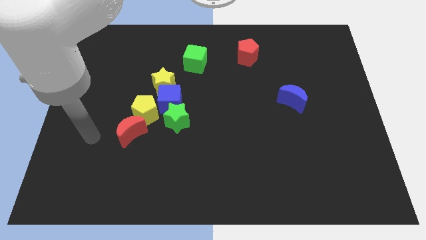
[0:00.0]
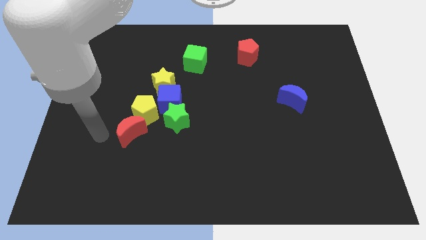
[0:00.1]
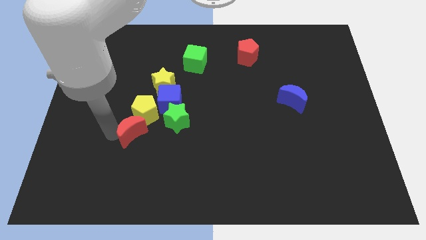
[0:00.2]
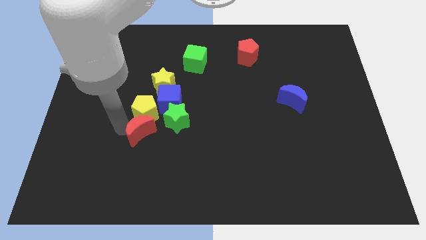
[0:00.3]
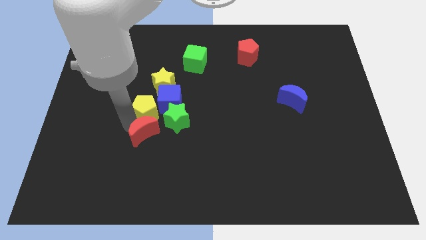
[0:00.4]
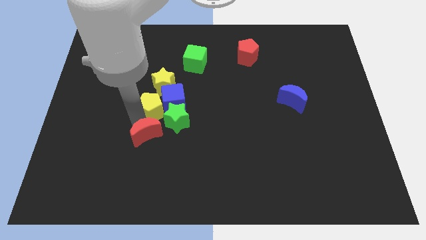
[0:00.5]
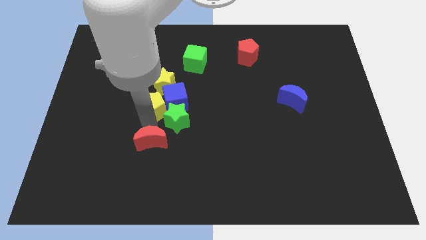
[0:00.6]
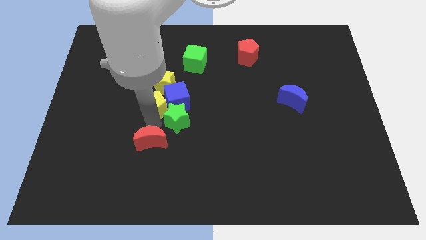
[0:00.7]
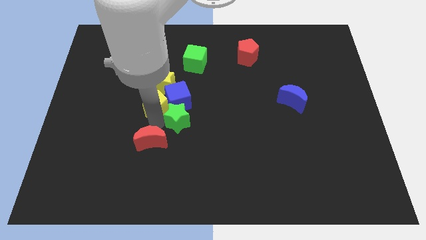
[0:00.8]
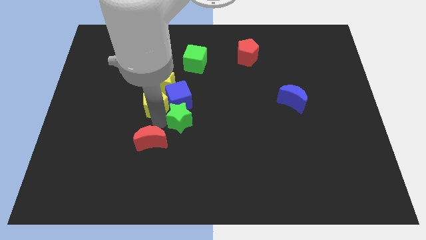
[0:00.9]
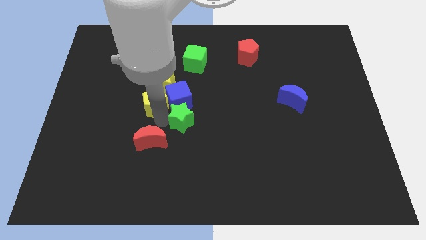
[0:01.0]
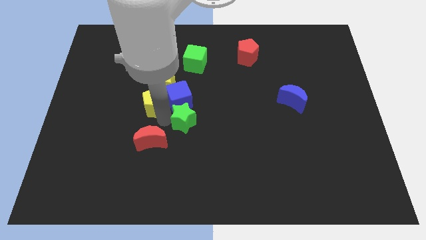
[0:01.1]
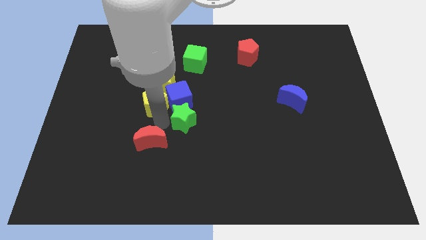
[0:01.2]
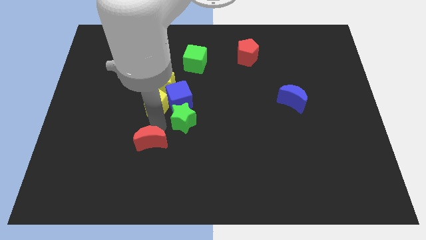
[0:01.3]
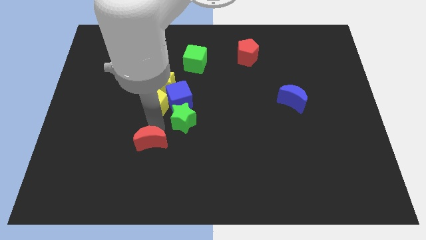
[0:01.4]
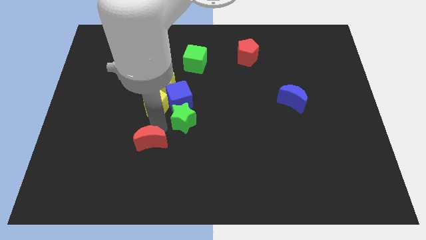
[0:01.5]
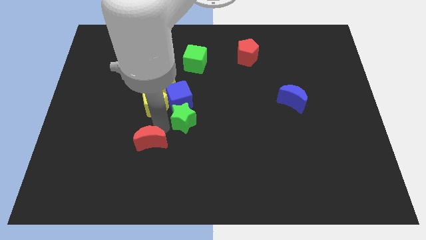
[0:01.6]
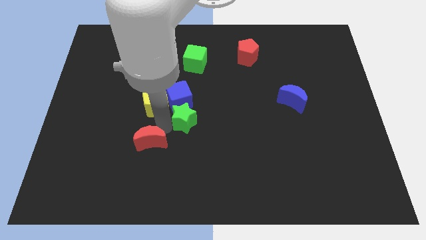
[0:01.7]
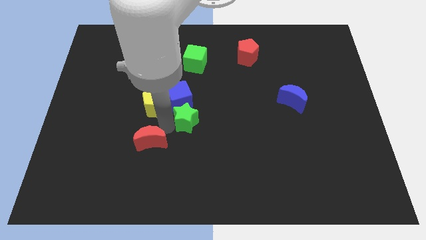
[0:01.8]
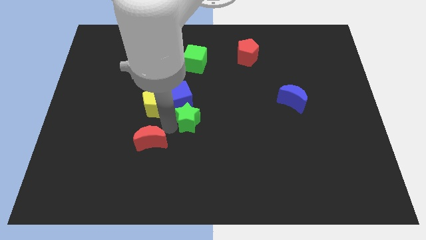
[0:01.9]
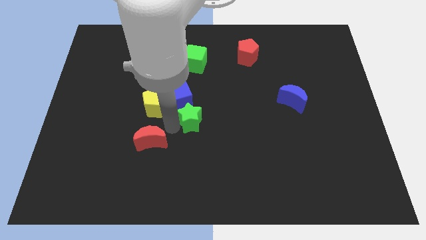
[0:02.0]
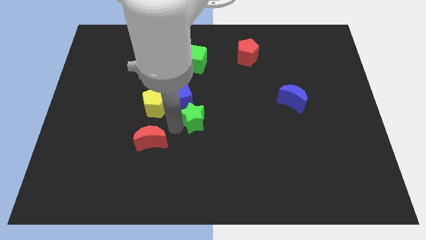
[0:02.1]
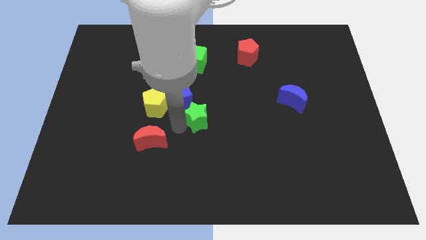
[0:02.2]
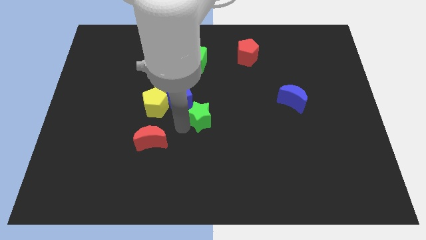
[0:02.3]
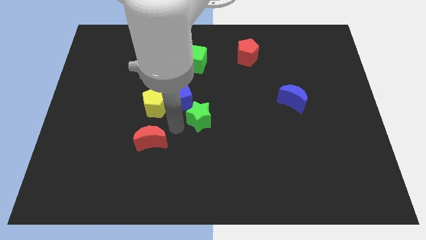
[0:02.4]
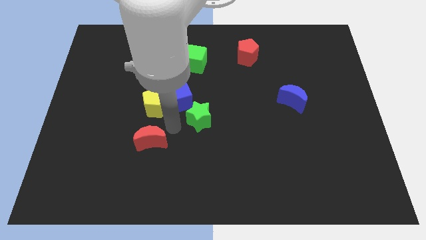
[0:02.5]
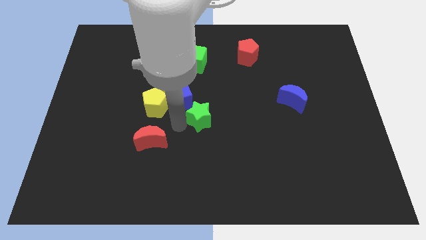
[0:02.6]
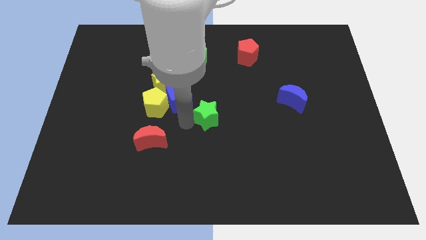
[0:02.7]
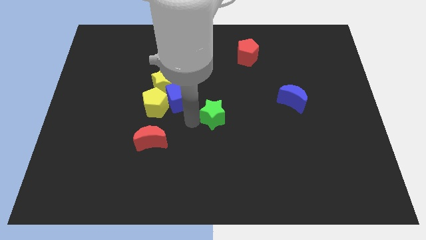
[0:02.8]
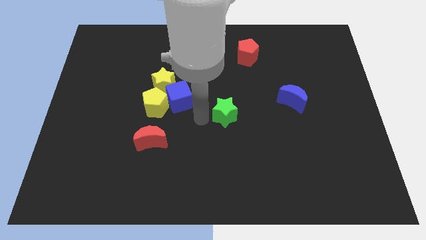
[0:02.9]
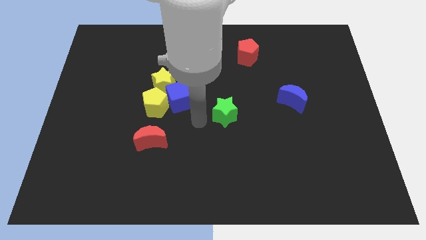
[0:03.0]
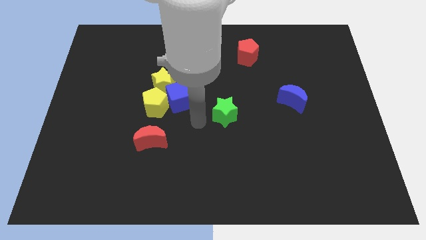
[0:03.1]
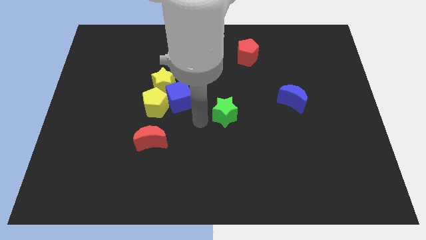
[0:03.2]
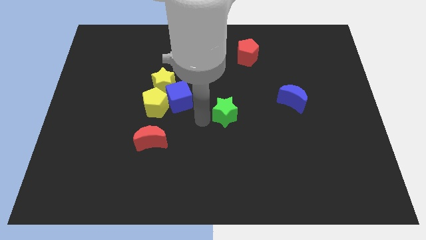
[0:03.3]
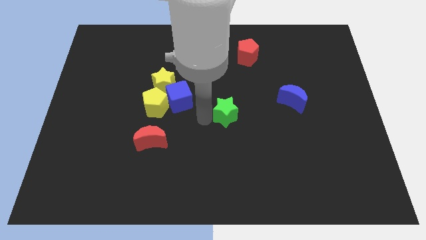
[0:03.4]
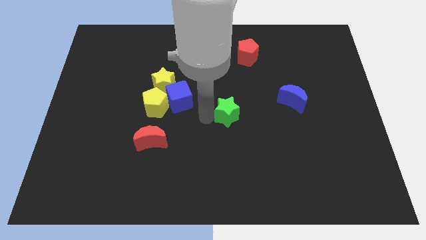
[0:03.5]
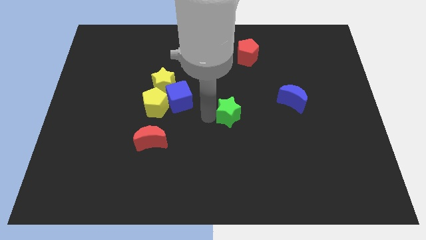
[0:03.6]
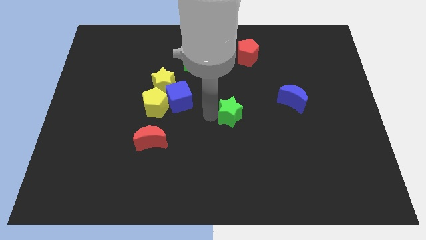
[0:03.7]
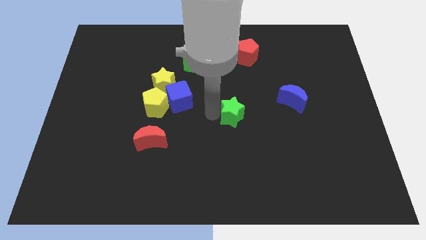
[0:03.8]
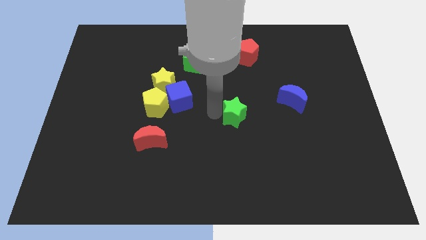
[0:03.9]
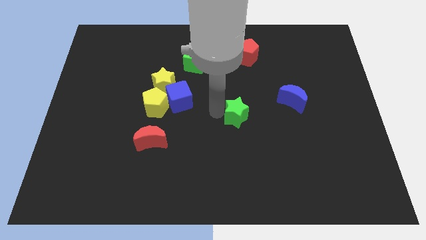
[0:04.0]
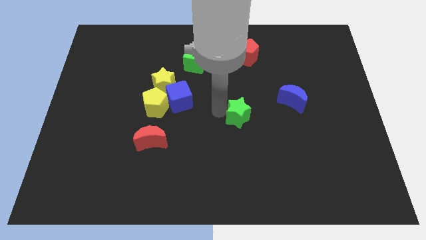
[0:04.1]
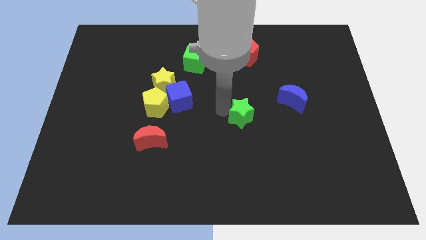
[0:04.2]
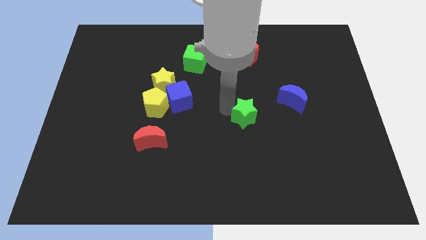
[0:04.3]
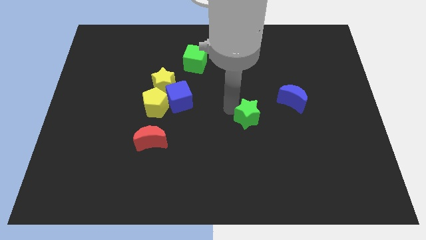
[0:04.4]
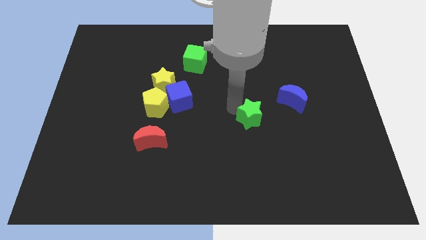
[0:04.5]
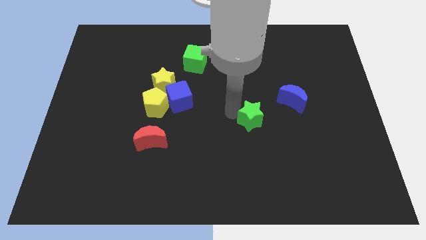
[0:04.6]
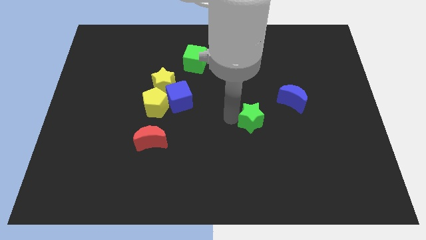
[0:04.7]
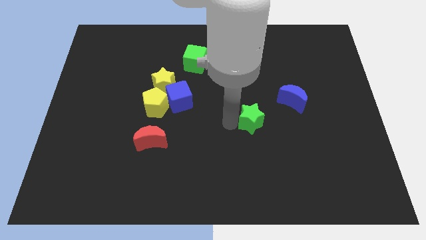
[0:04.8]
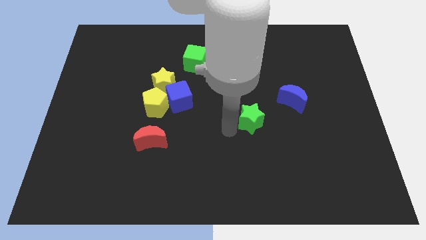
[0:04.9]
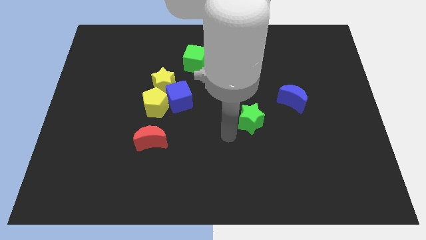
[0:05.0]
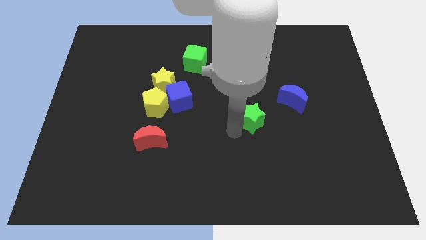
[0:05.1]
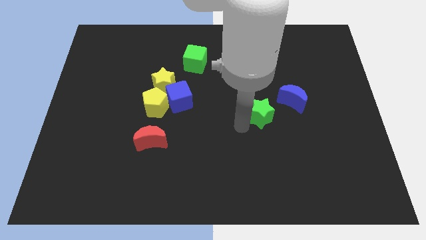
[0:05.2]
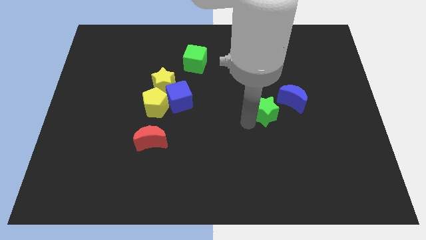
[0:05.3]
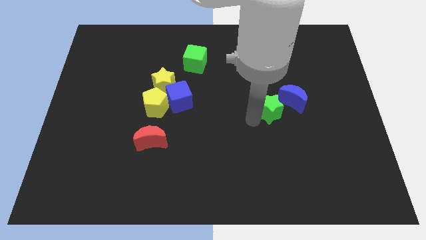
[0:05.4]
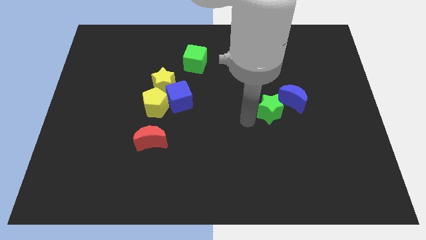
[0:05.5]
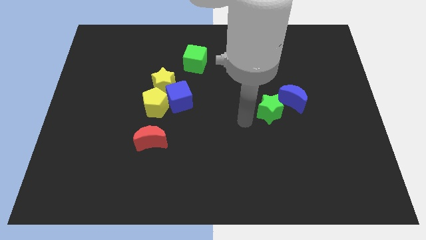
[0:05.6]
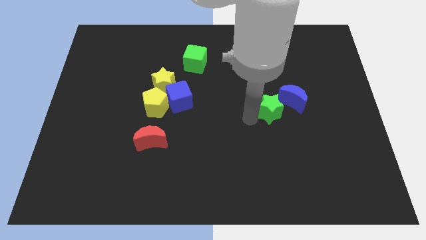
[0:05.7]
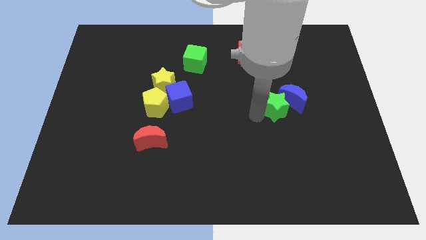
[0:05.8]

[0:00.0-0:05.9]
push the green star next to the blue moon

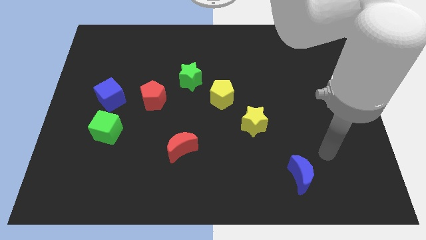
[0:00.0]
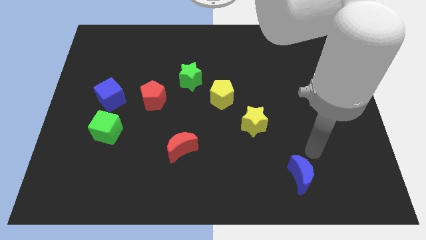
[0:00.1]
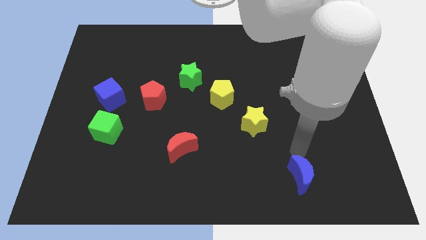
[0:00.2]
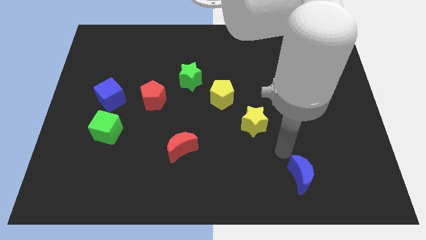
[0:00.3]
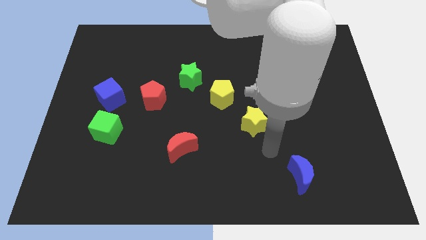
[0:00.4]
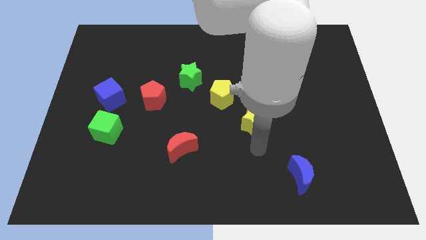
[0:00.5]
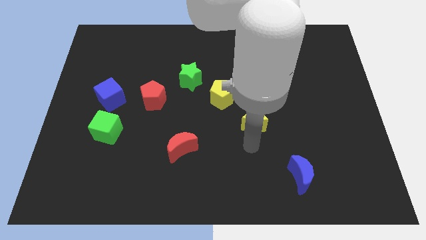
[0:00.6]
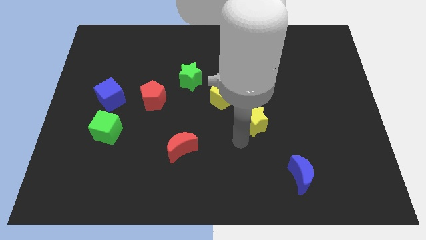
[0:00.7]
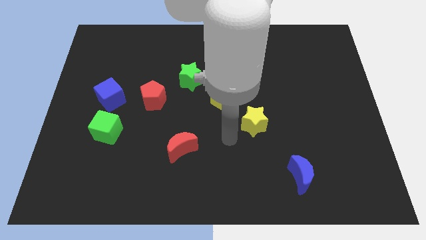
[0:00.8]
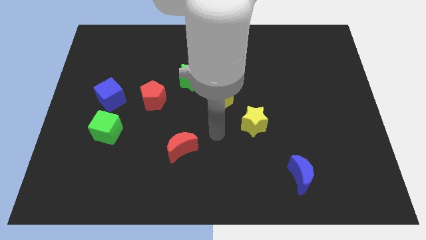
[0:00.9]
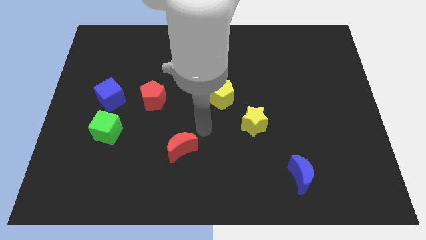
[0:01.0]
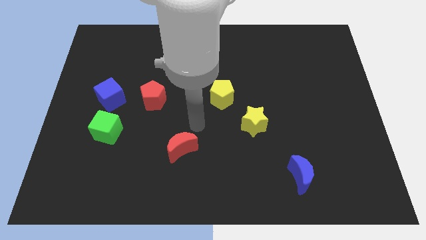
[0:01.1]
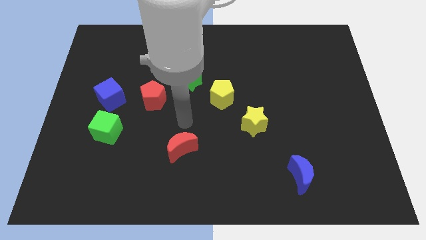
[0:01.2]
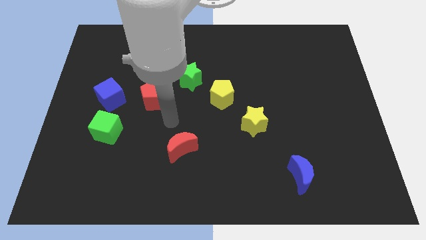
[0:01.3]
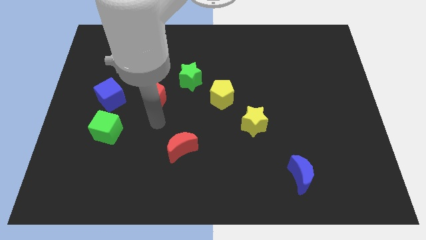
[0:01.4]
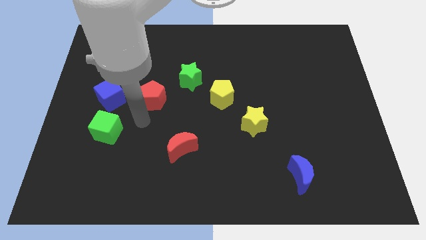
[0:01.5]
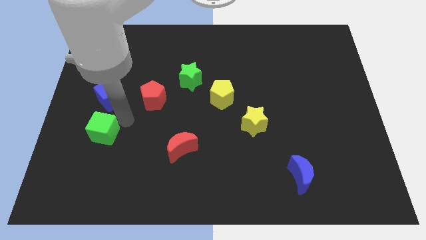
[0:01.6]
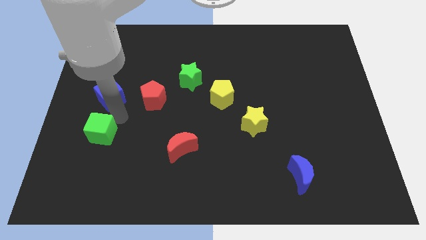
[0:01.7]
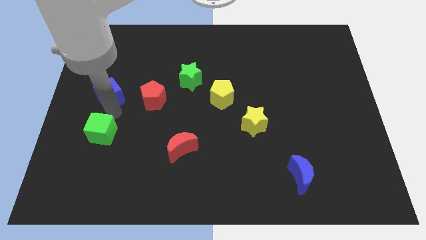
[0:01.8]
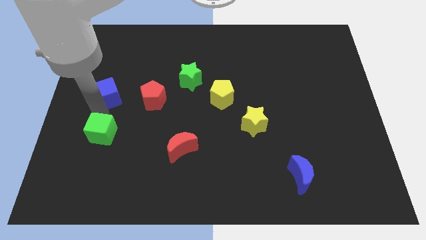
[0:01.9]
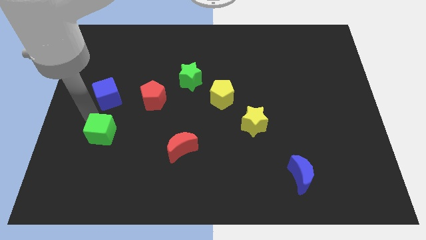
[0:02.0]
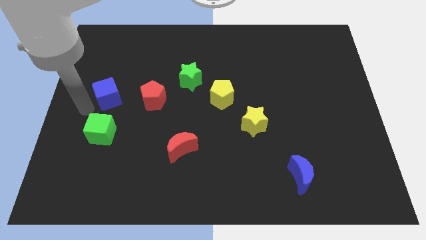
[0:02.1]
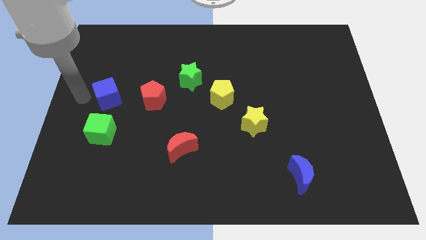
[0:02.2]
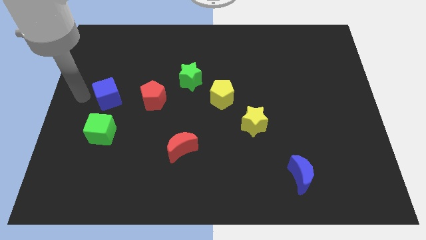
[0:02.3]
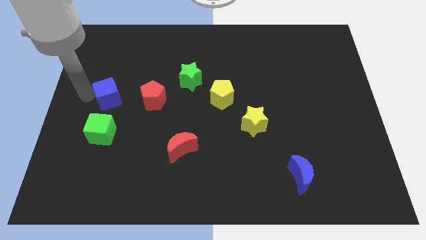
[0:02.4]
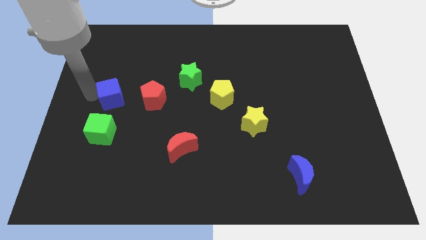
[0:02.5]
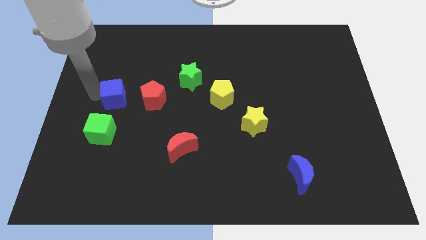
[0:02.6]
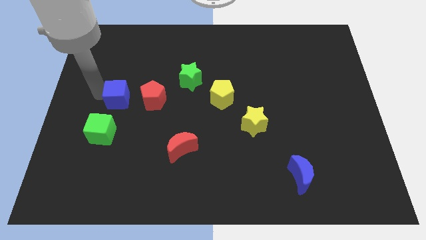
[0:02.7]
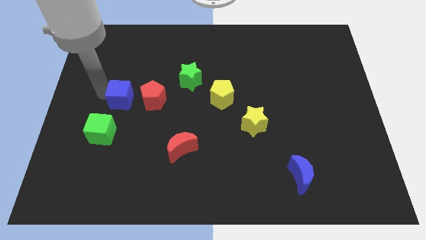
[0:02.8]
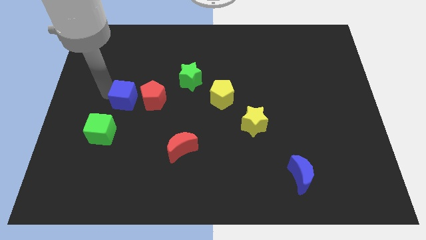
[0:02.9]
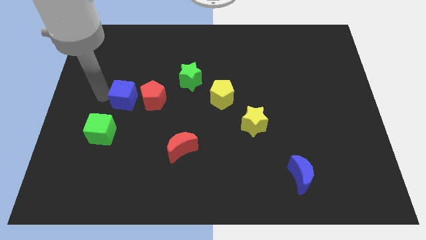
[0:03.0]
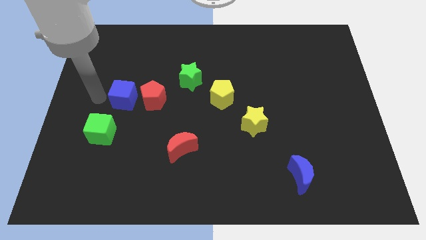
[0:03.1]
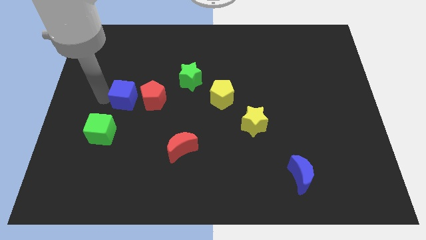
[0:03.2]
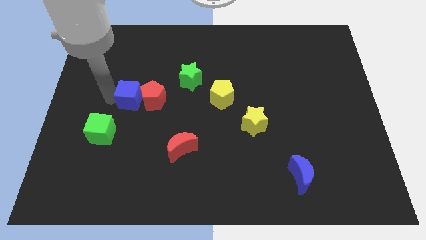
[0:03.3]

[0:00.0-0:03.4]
move the blue cube close to the red pentagon
